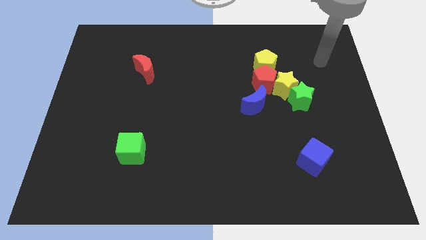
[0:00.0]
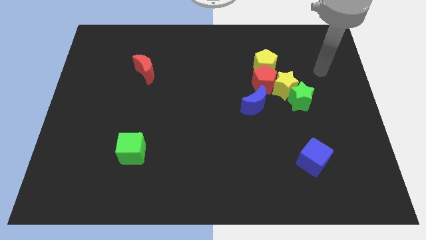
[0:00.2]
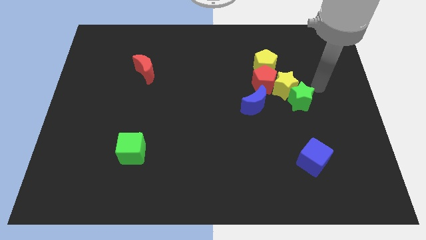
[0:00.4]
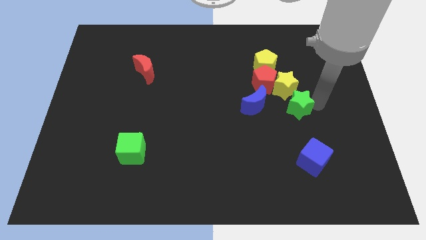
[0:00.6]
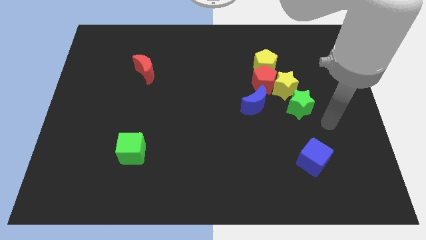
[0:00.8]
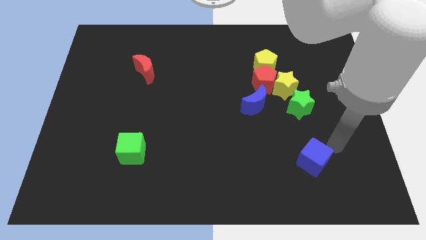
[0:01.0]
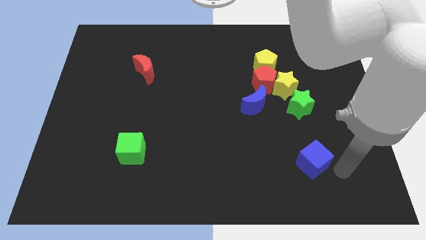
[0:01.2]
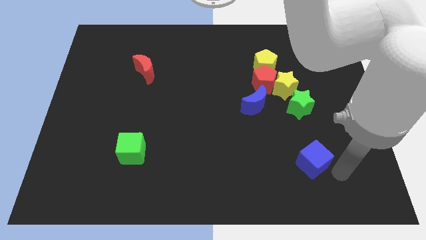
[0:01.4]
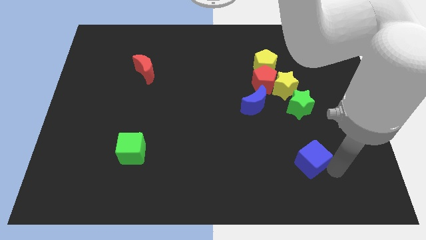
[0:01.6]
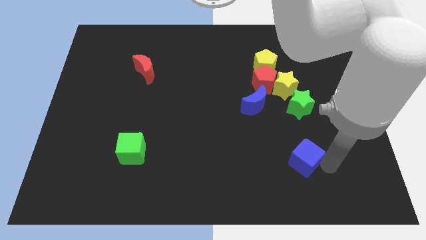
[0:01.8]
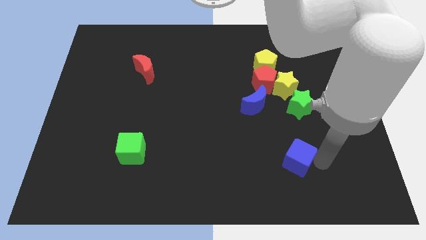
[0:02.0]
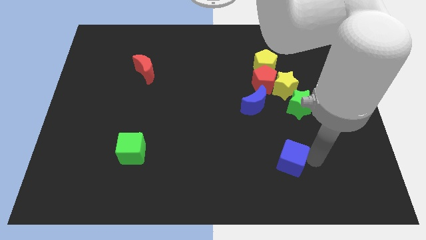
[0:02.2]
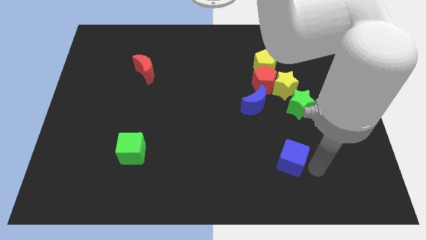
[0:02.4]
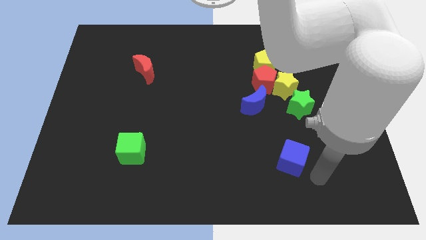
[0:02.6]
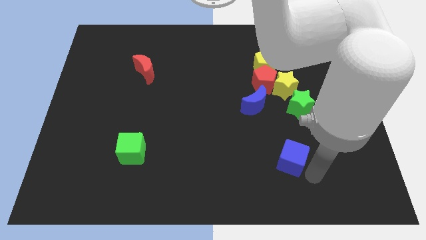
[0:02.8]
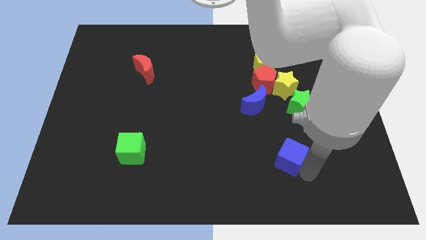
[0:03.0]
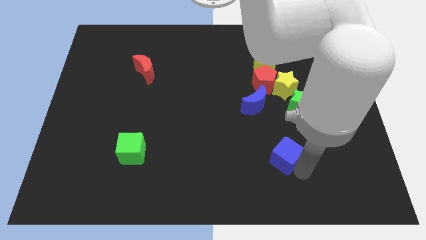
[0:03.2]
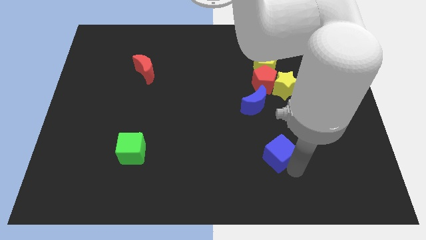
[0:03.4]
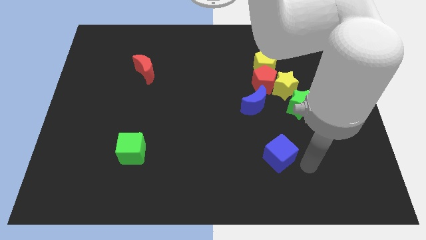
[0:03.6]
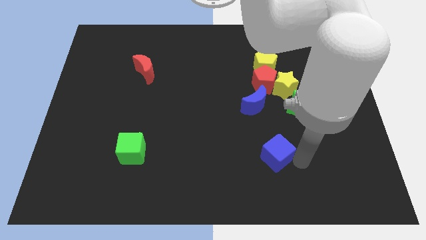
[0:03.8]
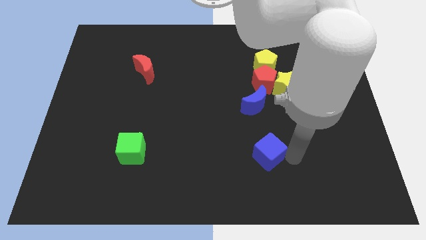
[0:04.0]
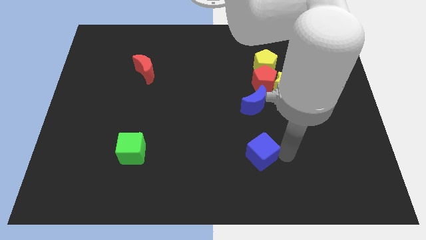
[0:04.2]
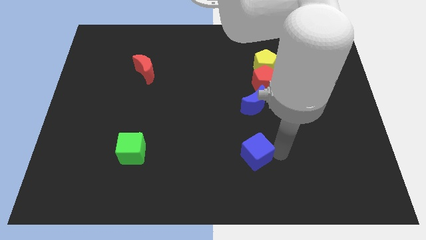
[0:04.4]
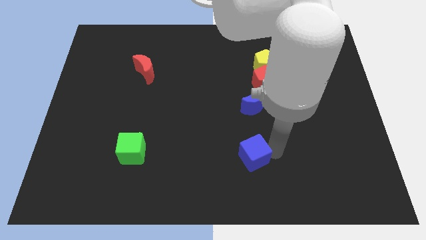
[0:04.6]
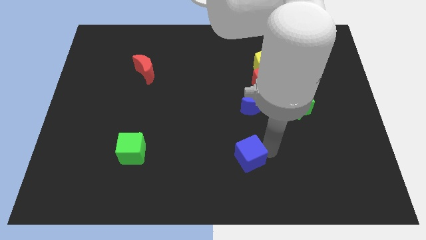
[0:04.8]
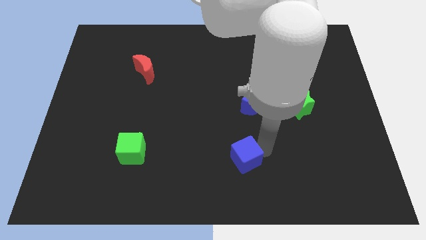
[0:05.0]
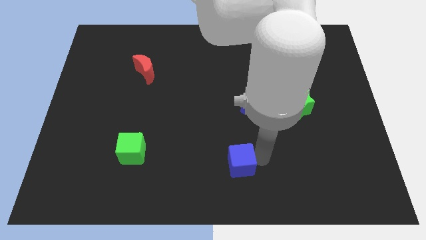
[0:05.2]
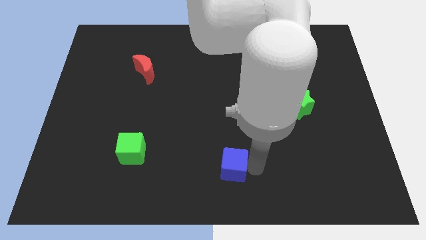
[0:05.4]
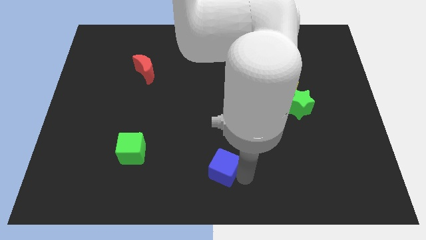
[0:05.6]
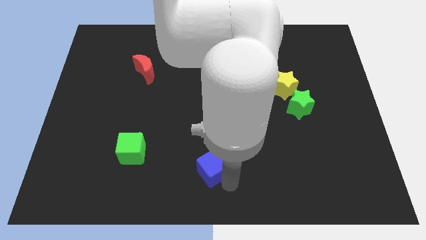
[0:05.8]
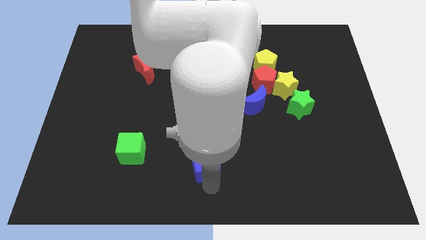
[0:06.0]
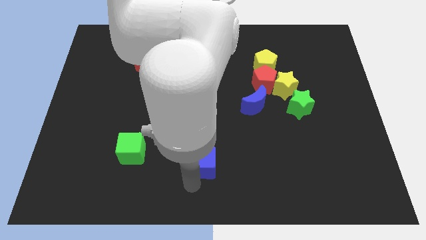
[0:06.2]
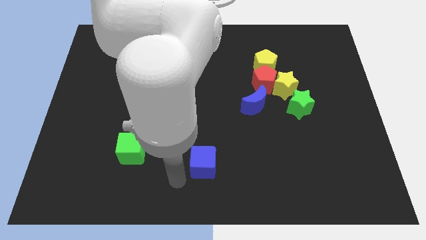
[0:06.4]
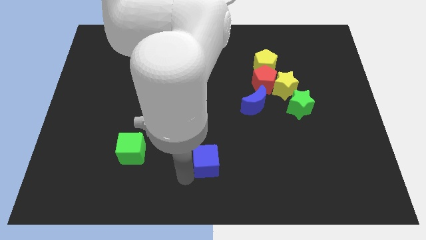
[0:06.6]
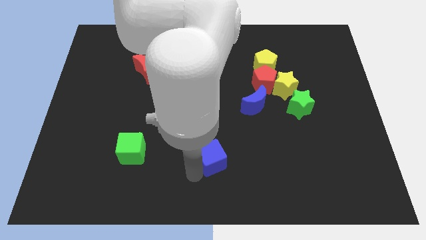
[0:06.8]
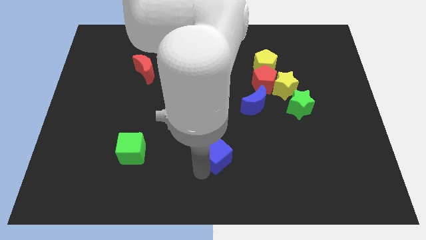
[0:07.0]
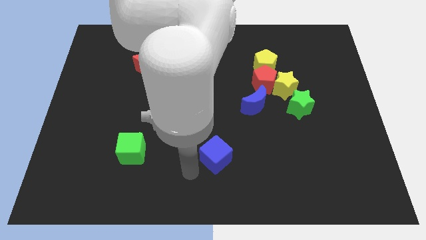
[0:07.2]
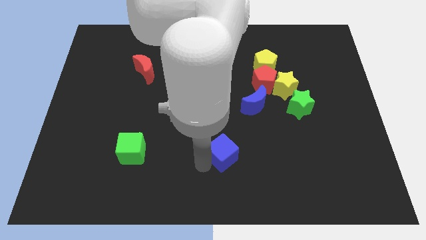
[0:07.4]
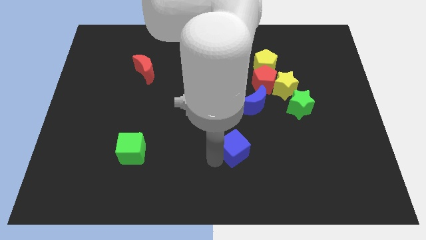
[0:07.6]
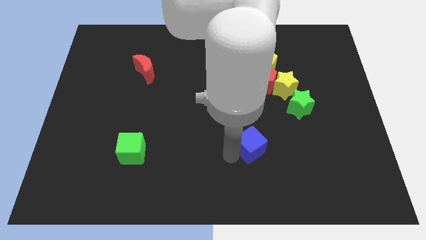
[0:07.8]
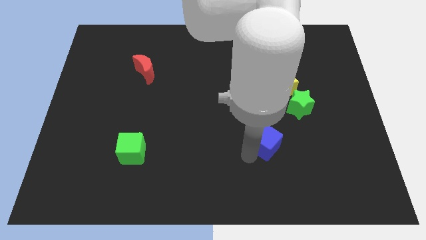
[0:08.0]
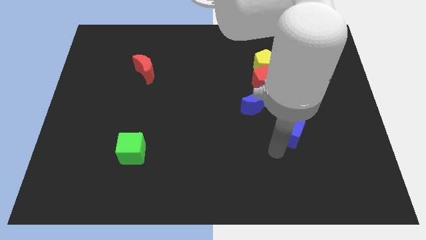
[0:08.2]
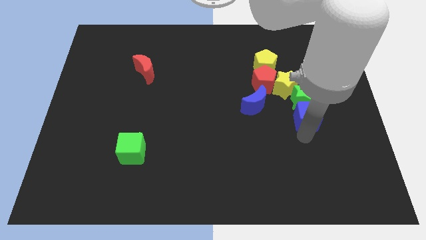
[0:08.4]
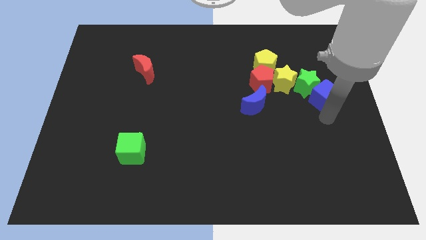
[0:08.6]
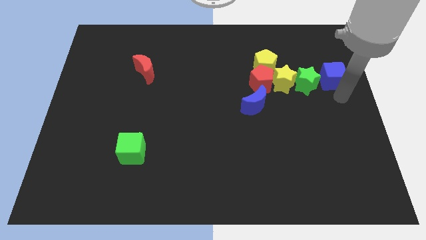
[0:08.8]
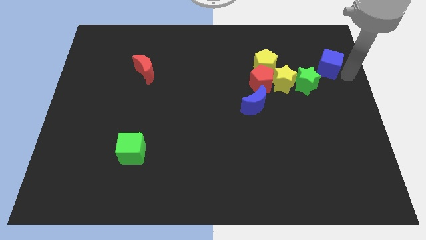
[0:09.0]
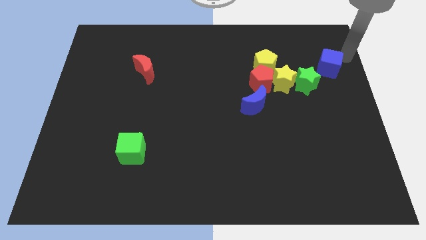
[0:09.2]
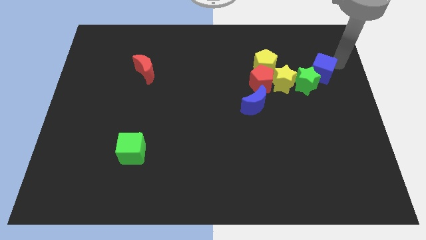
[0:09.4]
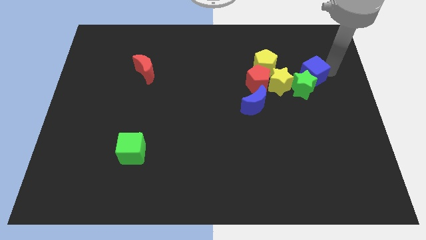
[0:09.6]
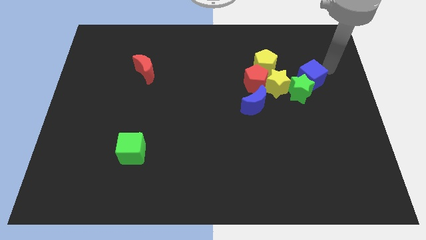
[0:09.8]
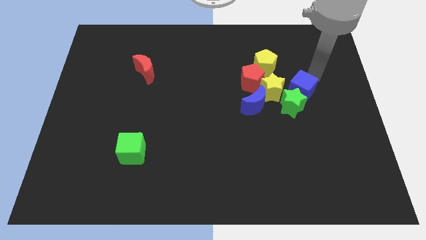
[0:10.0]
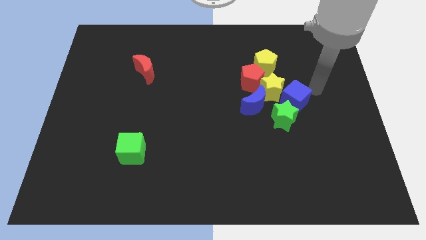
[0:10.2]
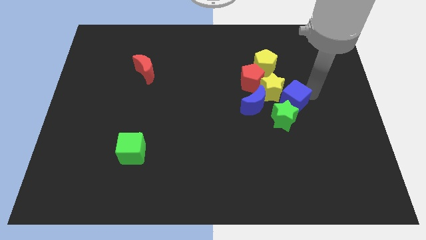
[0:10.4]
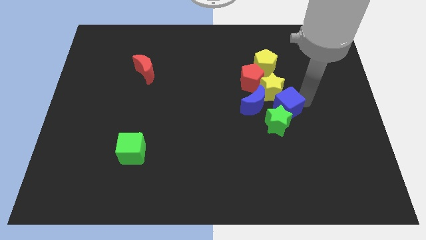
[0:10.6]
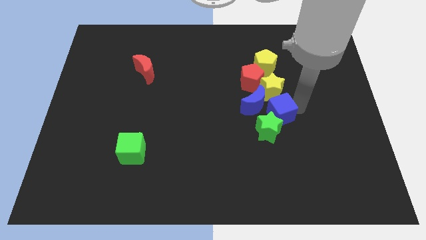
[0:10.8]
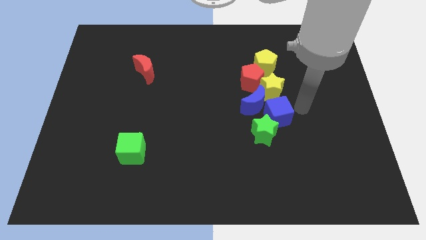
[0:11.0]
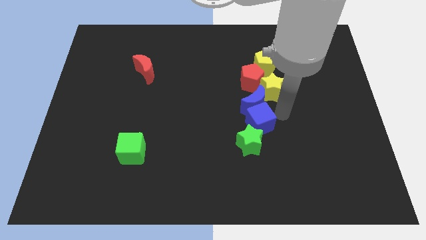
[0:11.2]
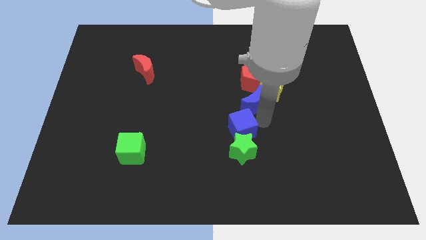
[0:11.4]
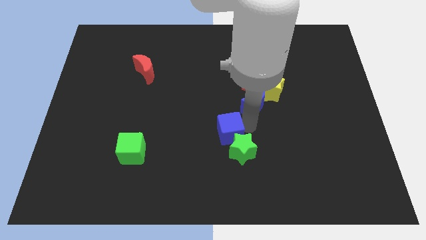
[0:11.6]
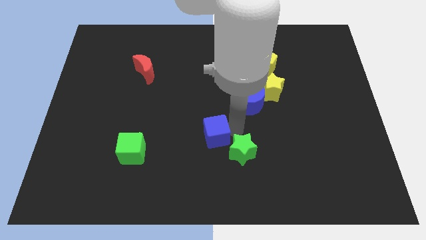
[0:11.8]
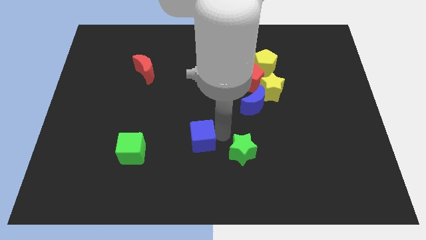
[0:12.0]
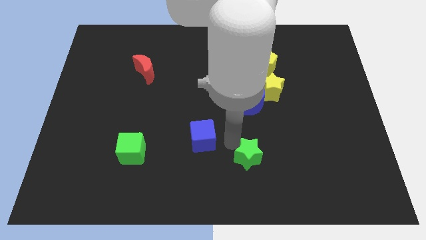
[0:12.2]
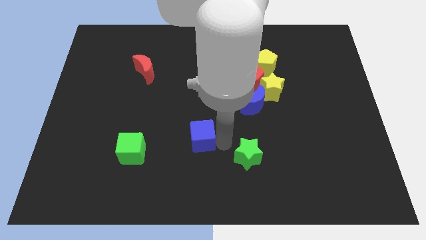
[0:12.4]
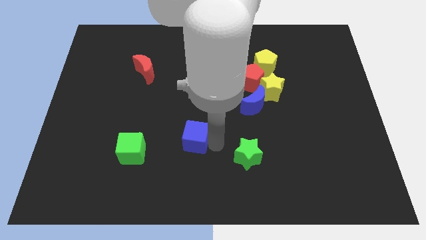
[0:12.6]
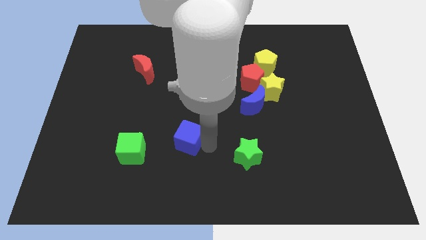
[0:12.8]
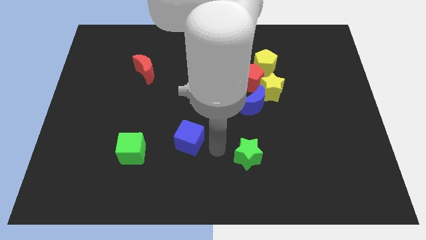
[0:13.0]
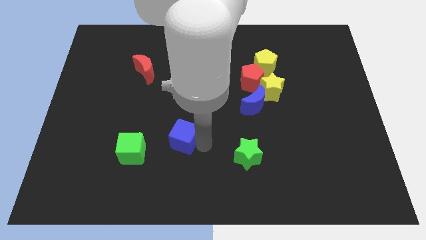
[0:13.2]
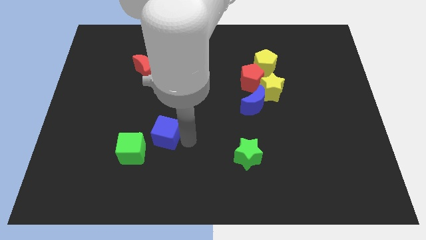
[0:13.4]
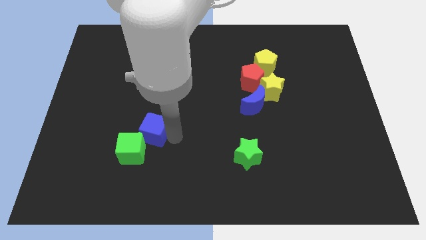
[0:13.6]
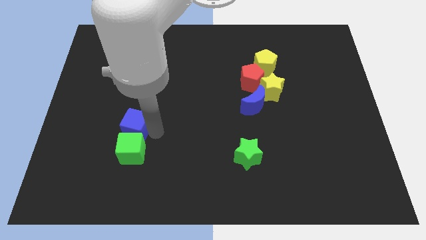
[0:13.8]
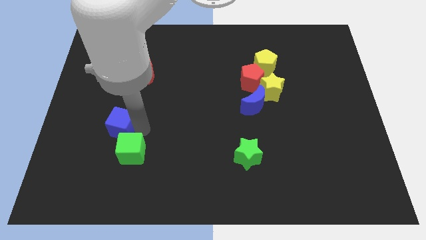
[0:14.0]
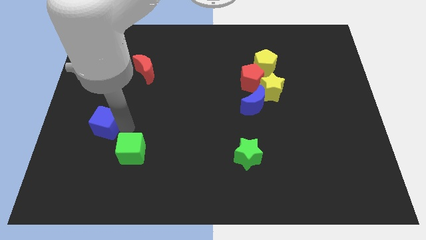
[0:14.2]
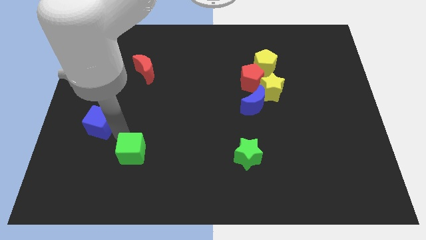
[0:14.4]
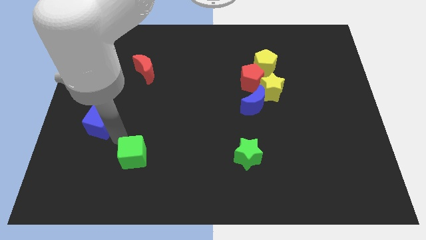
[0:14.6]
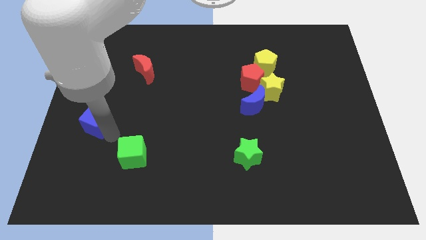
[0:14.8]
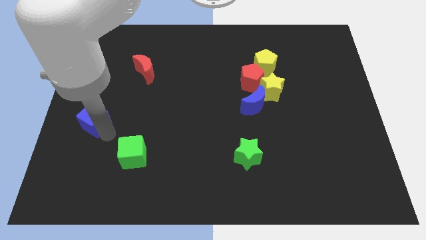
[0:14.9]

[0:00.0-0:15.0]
put the blue cube to the center left
